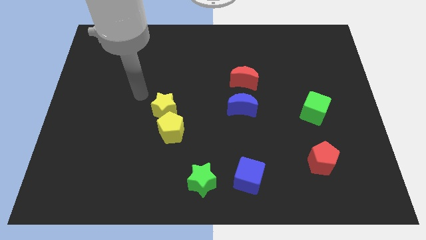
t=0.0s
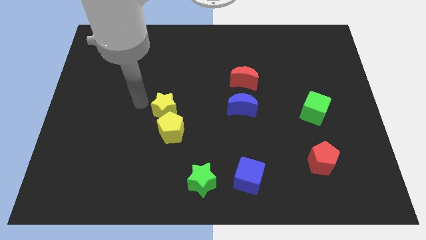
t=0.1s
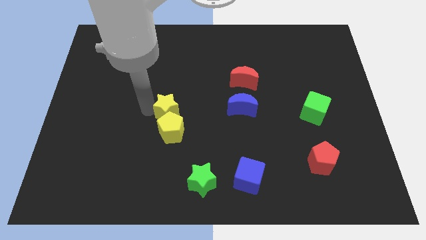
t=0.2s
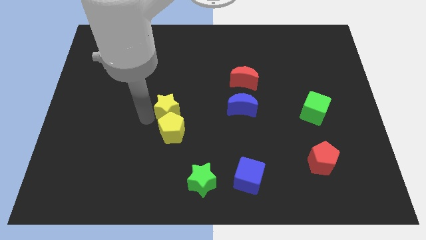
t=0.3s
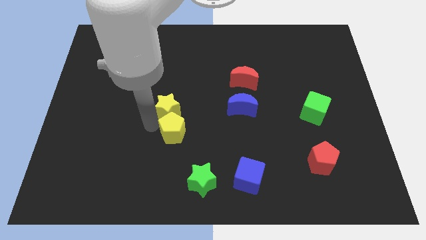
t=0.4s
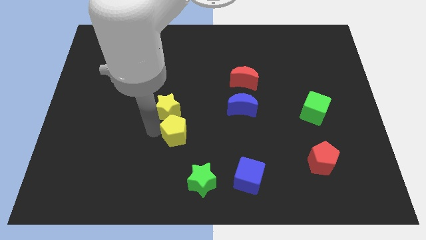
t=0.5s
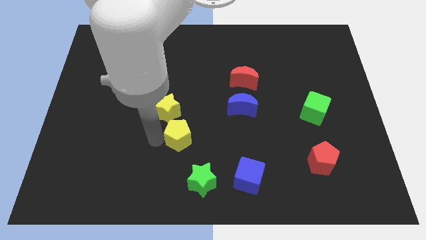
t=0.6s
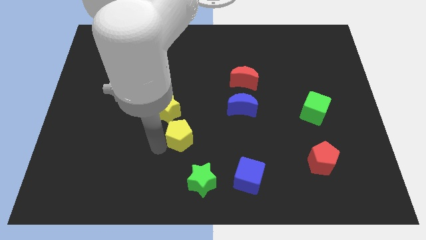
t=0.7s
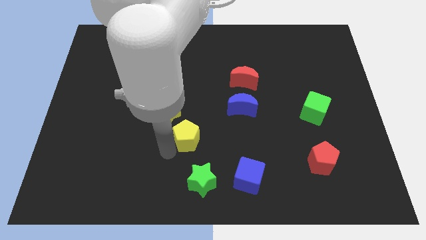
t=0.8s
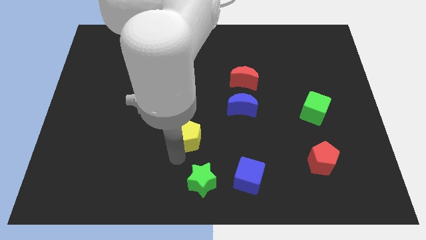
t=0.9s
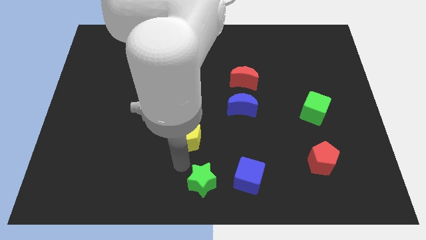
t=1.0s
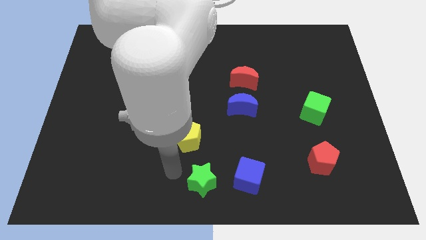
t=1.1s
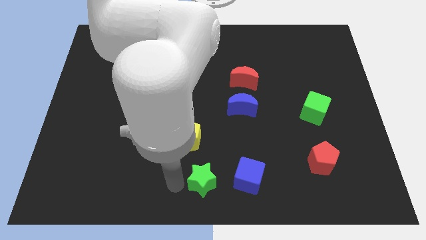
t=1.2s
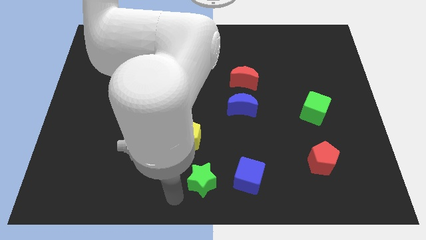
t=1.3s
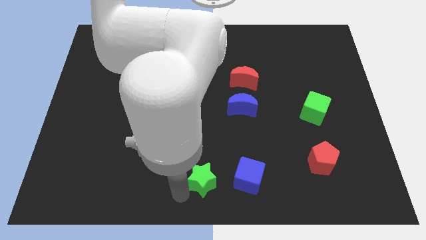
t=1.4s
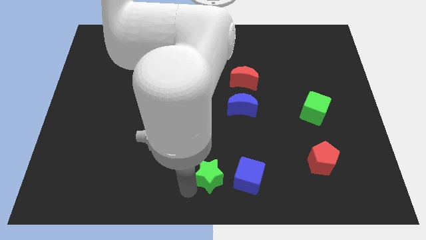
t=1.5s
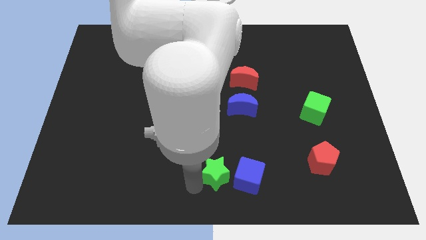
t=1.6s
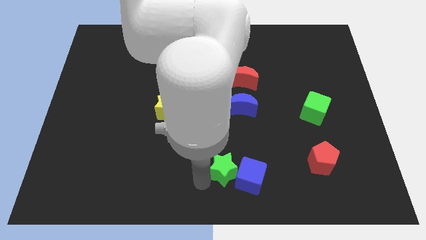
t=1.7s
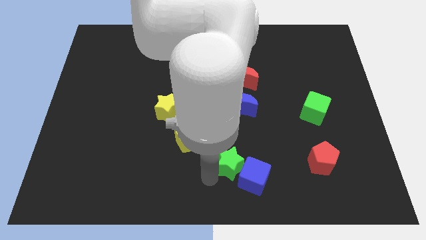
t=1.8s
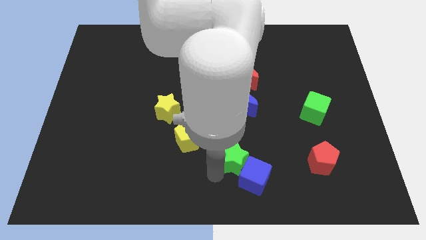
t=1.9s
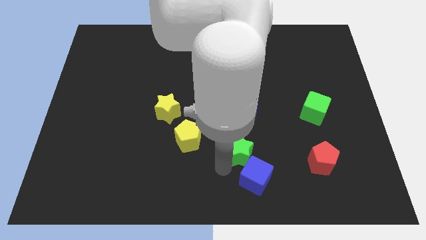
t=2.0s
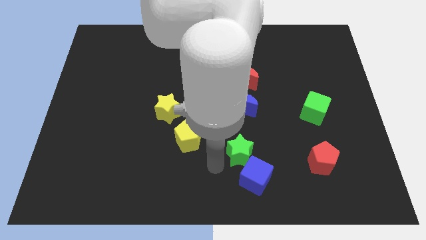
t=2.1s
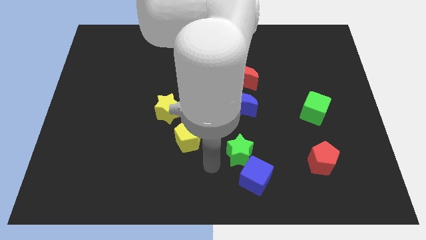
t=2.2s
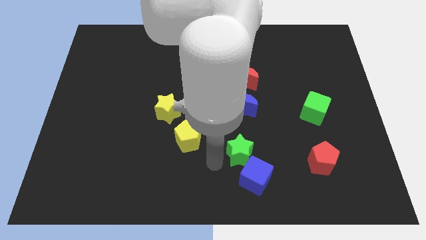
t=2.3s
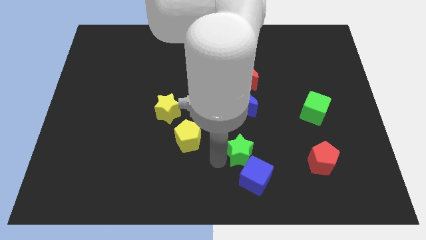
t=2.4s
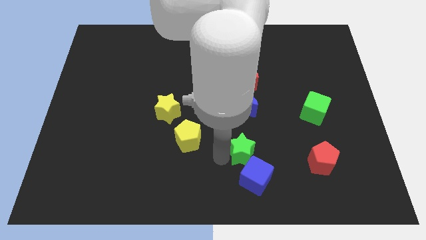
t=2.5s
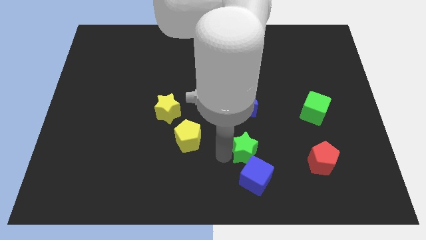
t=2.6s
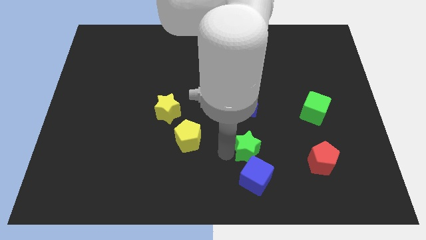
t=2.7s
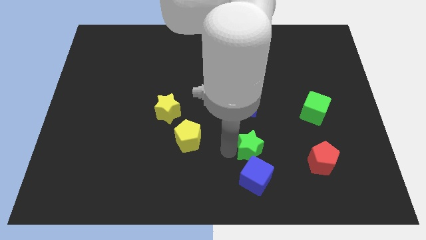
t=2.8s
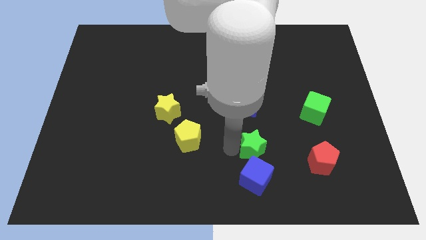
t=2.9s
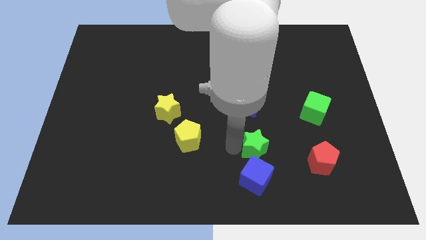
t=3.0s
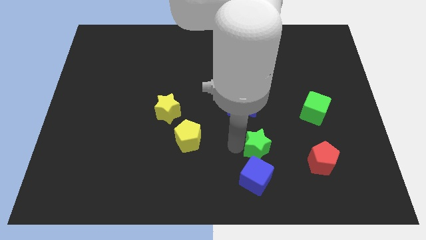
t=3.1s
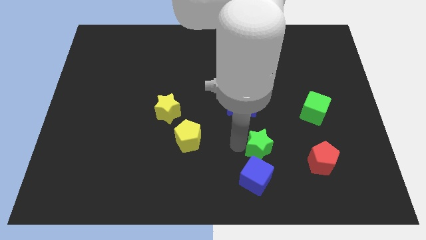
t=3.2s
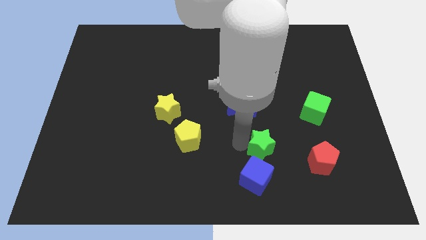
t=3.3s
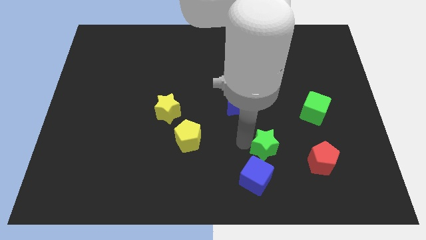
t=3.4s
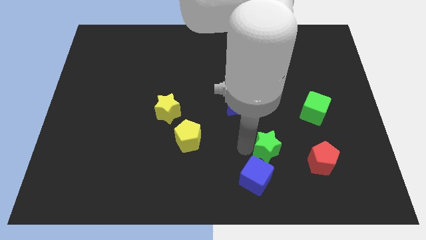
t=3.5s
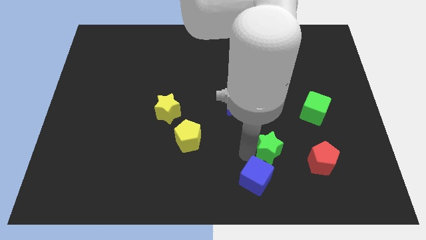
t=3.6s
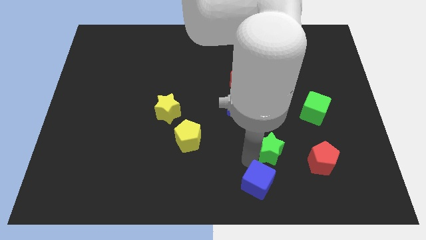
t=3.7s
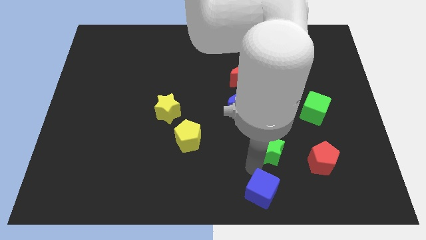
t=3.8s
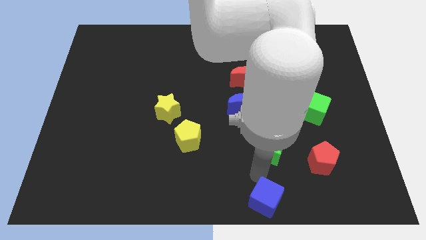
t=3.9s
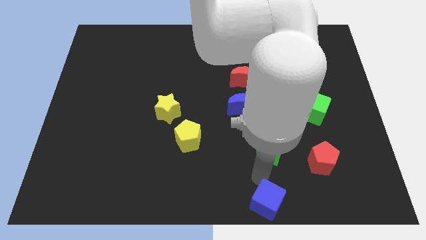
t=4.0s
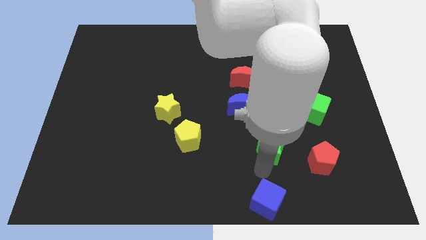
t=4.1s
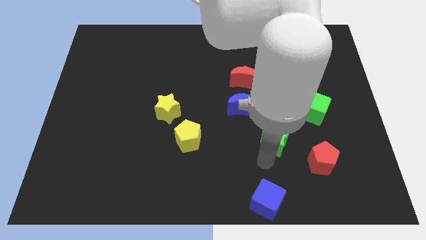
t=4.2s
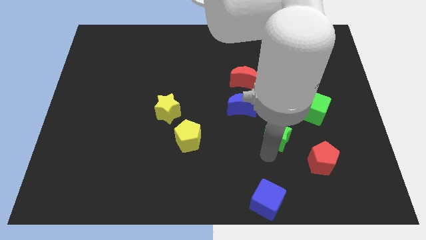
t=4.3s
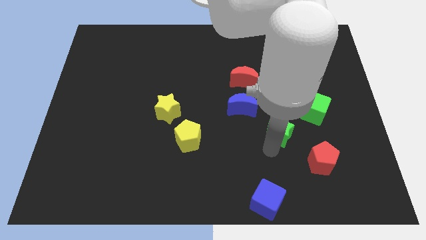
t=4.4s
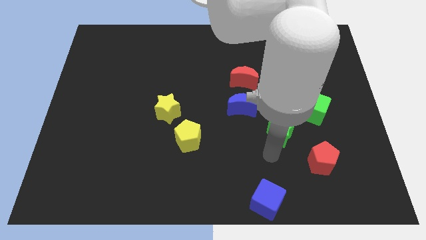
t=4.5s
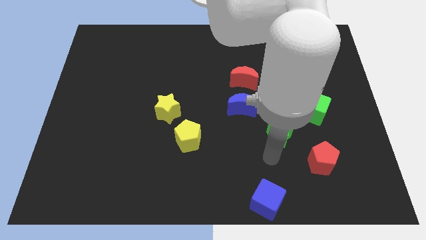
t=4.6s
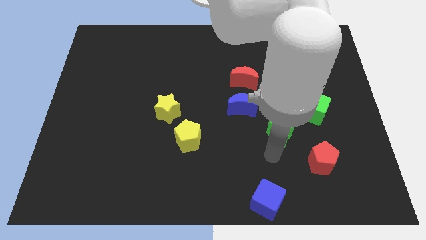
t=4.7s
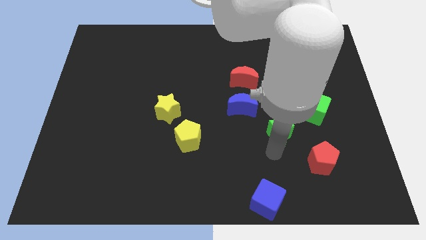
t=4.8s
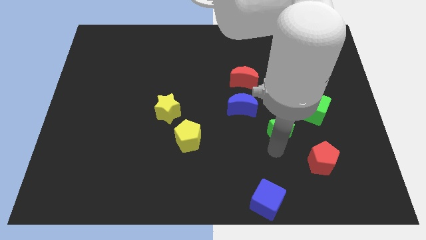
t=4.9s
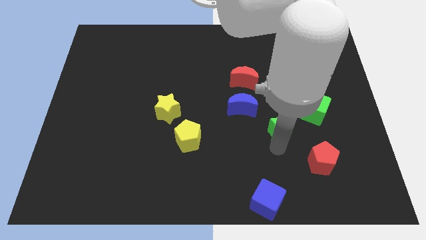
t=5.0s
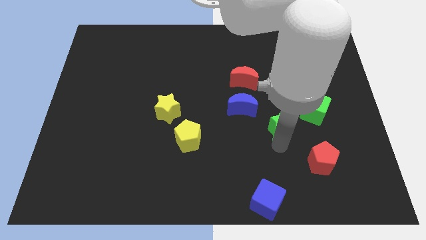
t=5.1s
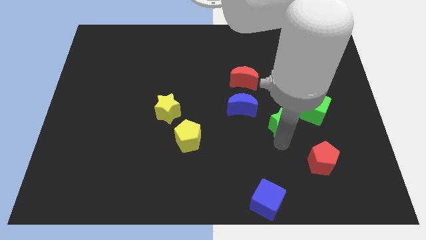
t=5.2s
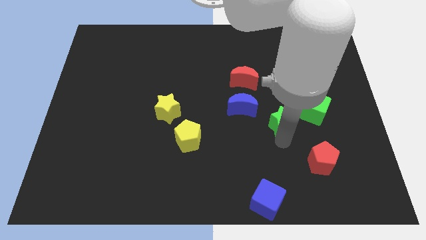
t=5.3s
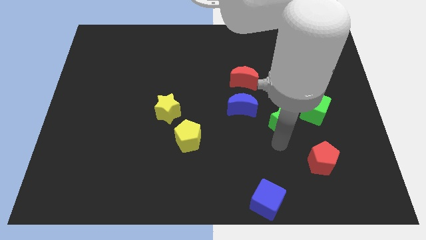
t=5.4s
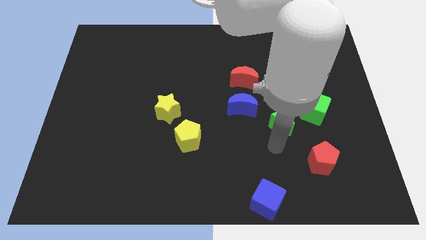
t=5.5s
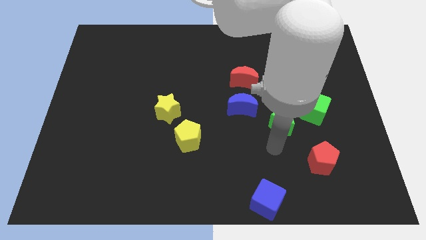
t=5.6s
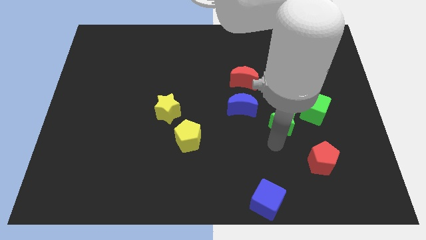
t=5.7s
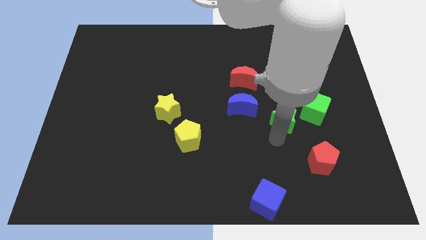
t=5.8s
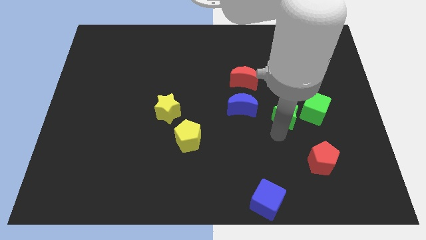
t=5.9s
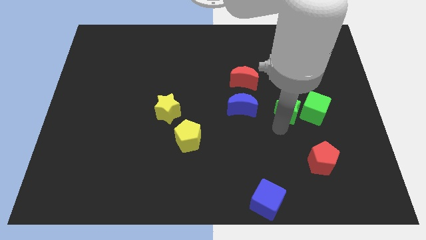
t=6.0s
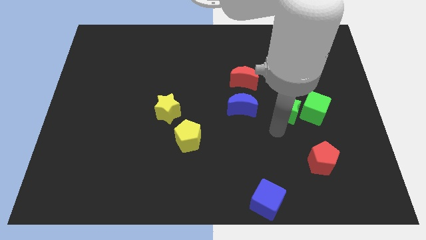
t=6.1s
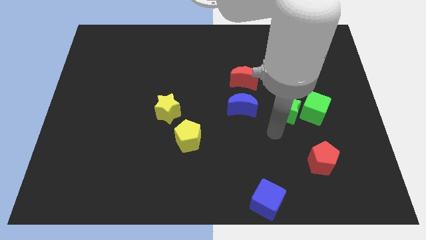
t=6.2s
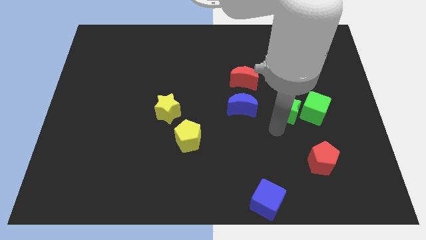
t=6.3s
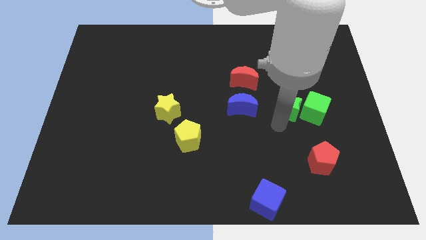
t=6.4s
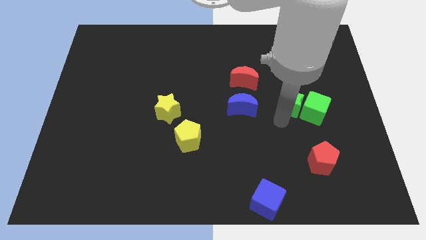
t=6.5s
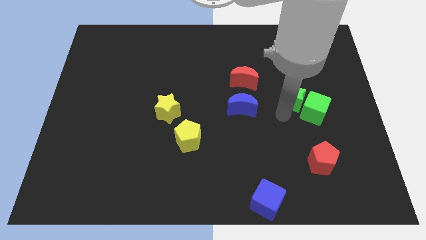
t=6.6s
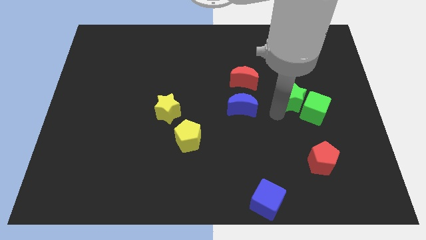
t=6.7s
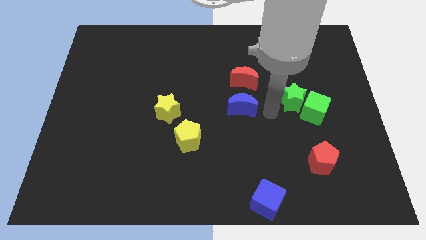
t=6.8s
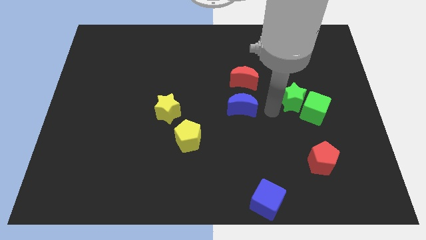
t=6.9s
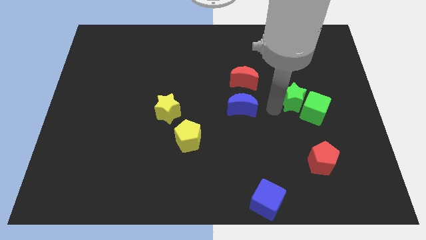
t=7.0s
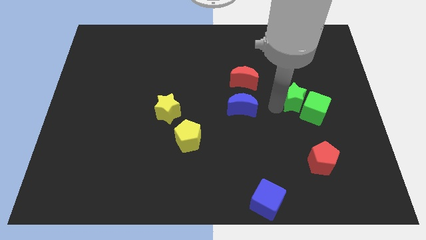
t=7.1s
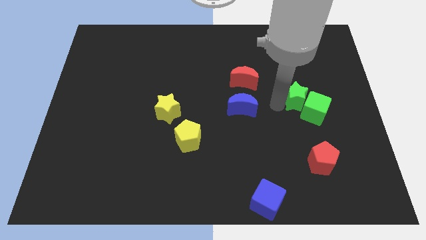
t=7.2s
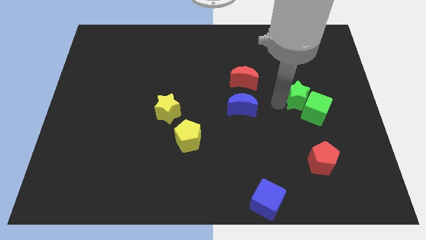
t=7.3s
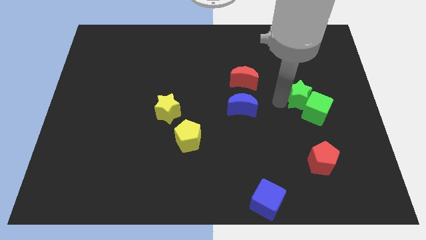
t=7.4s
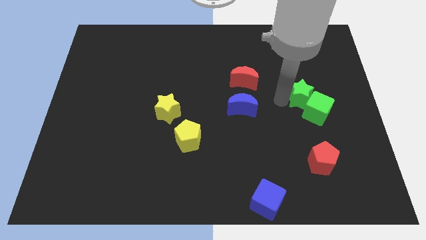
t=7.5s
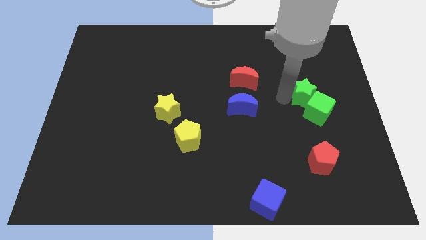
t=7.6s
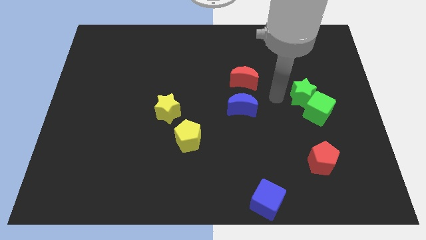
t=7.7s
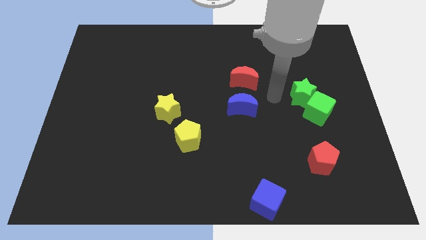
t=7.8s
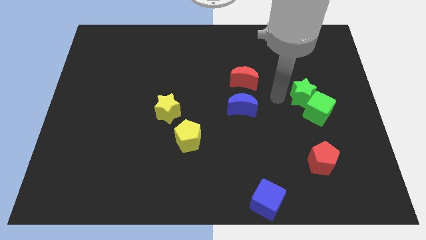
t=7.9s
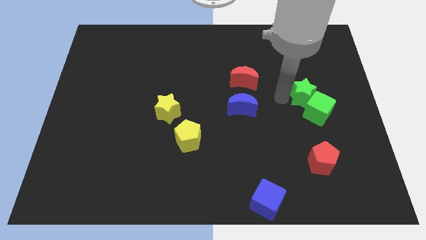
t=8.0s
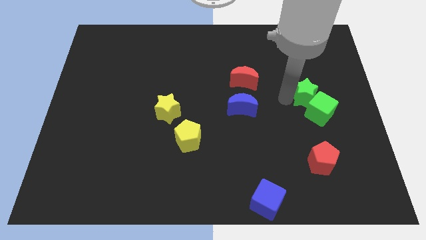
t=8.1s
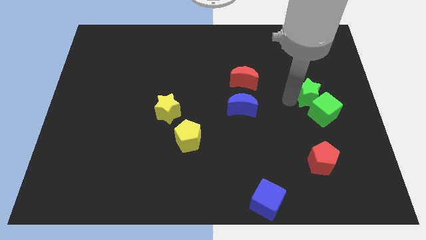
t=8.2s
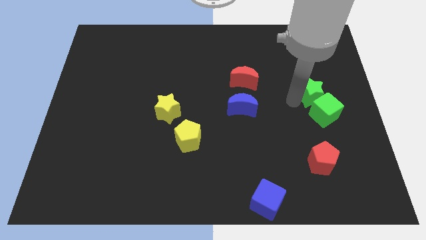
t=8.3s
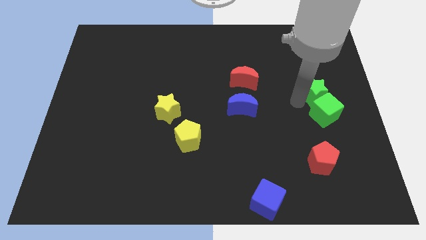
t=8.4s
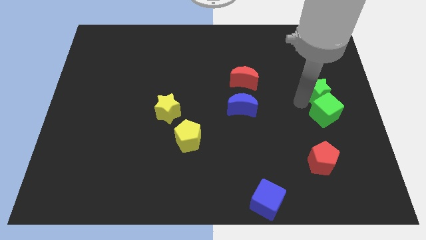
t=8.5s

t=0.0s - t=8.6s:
move the green star diagonally up and to the right of the green cube
